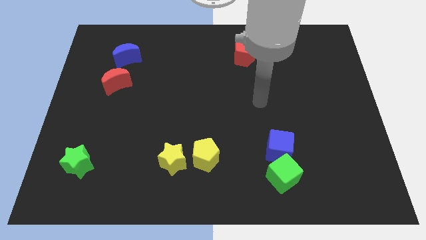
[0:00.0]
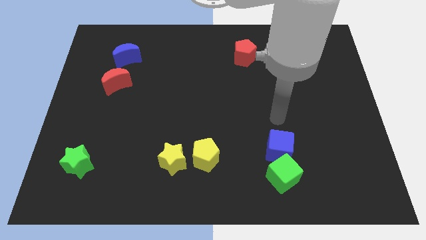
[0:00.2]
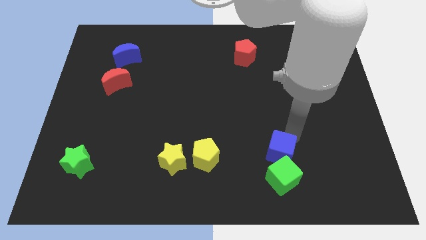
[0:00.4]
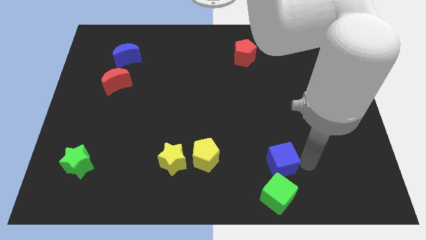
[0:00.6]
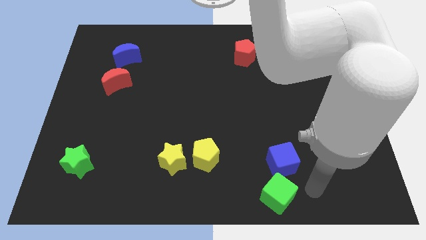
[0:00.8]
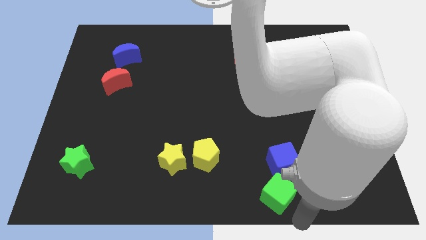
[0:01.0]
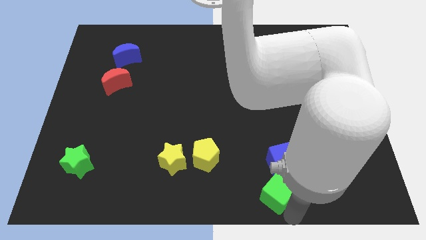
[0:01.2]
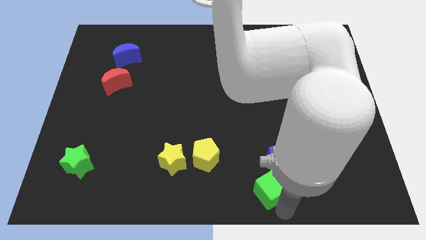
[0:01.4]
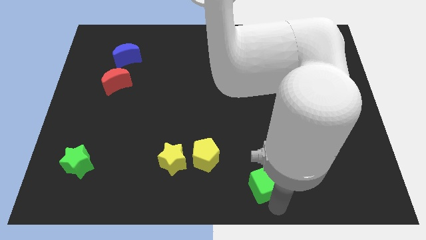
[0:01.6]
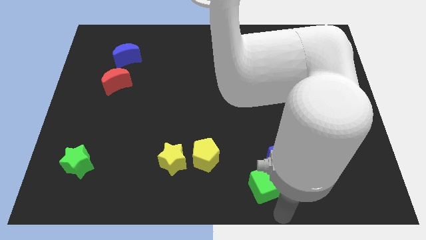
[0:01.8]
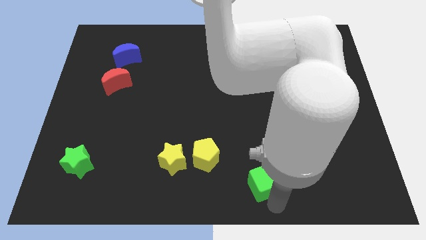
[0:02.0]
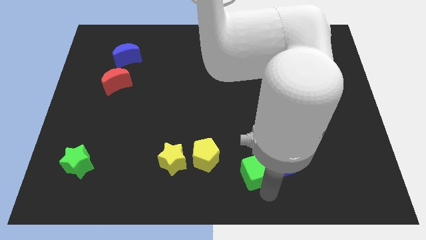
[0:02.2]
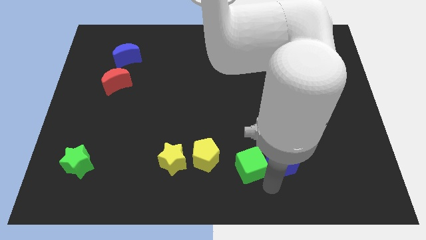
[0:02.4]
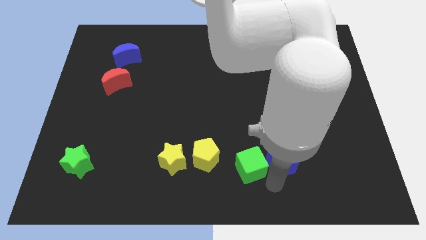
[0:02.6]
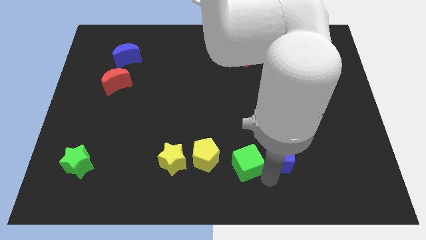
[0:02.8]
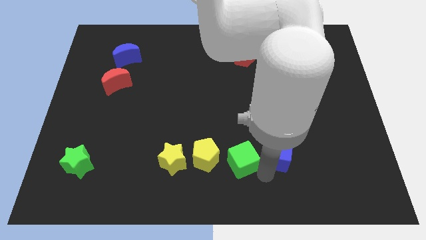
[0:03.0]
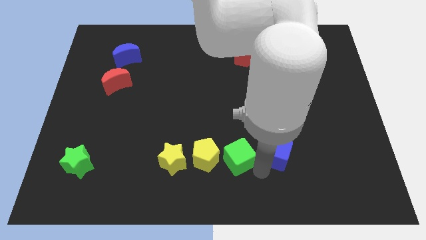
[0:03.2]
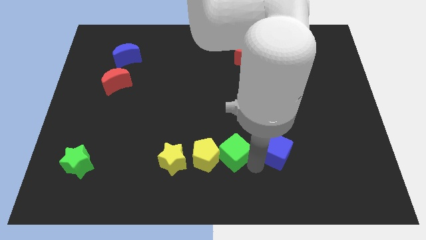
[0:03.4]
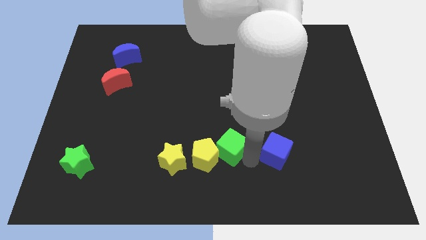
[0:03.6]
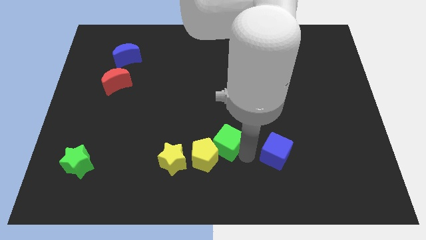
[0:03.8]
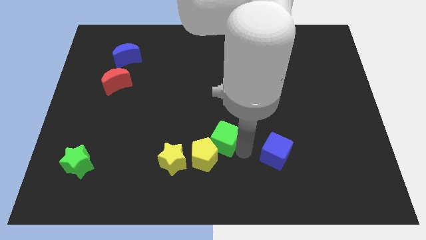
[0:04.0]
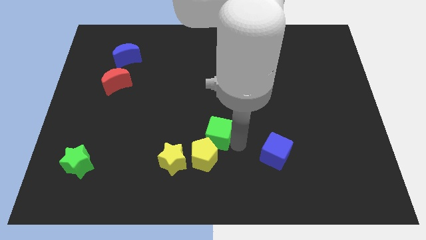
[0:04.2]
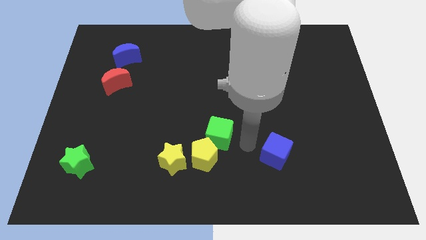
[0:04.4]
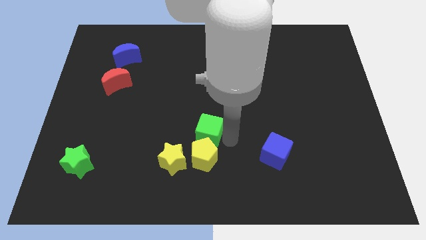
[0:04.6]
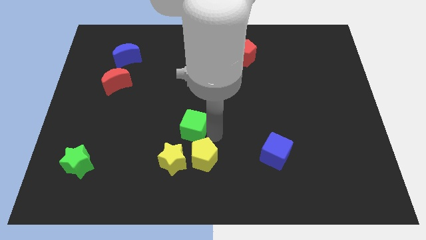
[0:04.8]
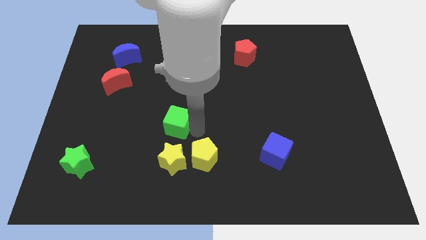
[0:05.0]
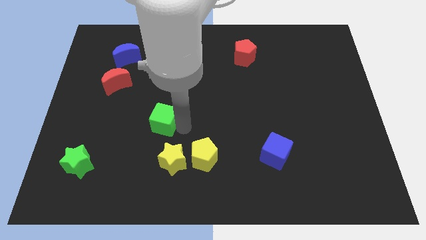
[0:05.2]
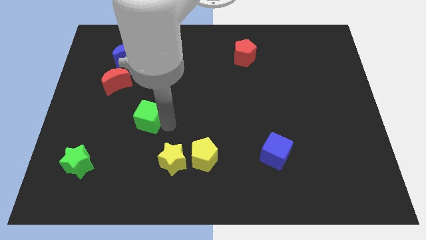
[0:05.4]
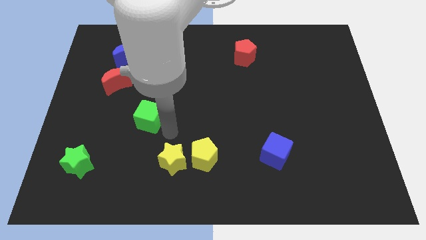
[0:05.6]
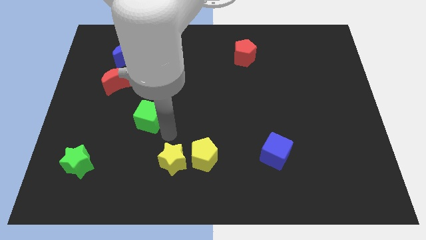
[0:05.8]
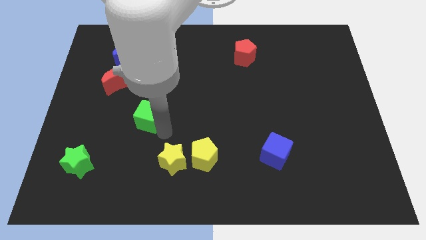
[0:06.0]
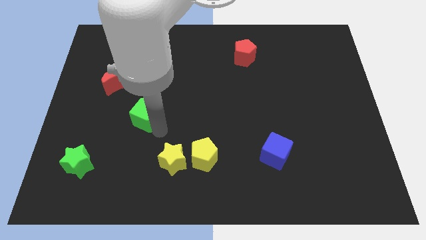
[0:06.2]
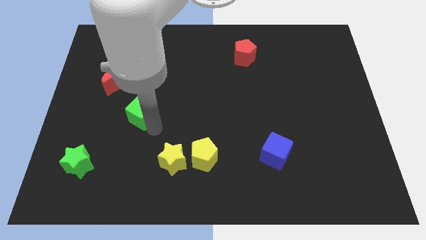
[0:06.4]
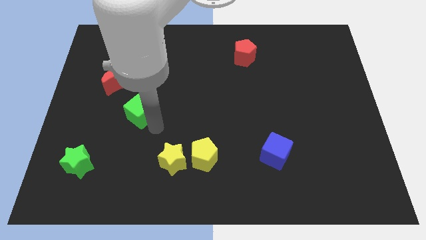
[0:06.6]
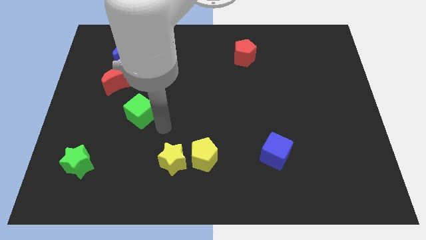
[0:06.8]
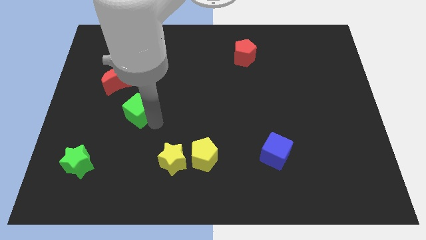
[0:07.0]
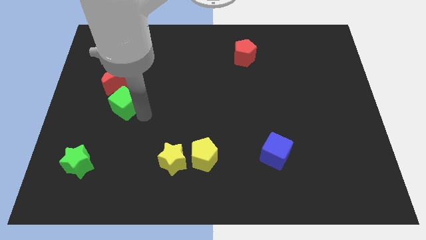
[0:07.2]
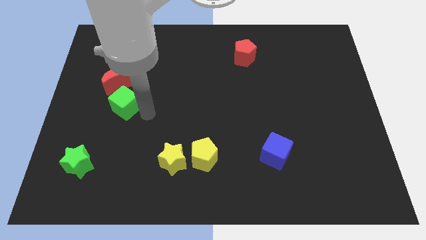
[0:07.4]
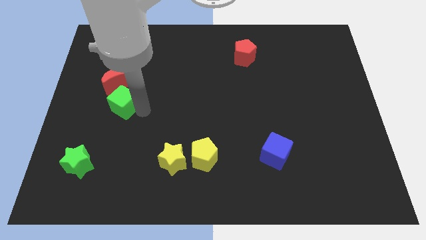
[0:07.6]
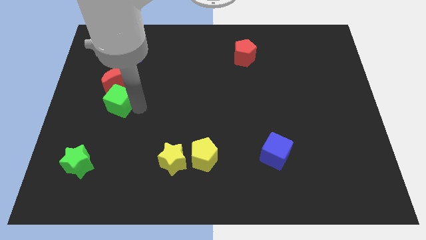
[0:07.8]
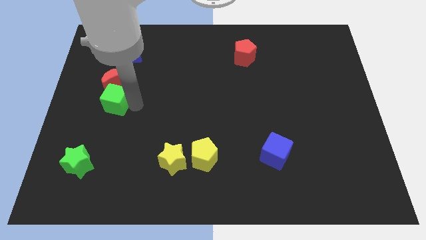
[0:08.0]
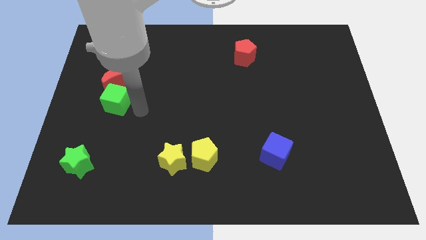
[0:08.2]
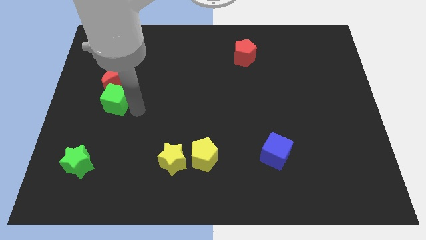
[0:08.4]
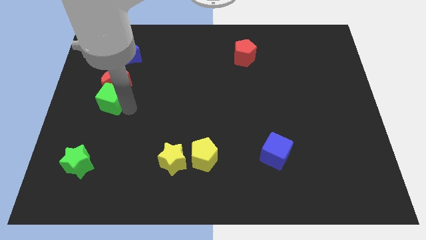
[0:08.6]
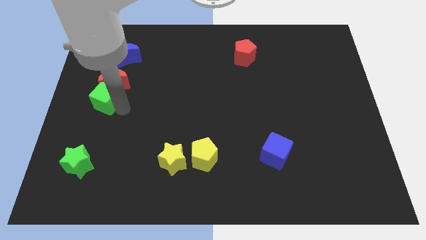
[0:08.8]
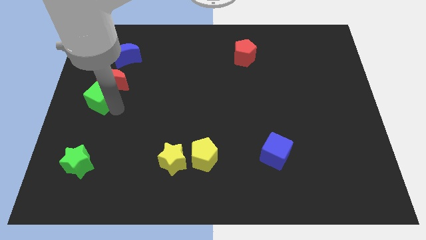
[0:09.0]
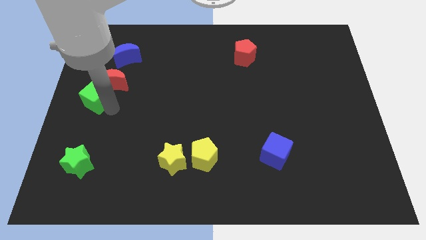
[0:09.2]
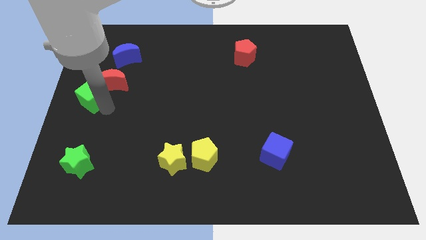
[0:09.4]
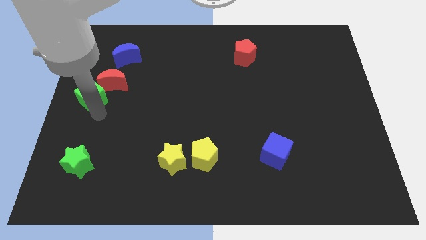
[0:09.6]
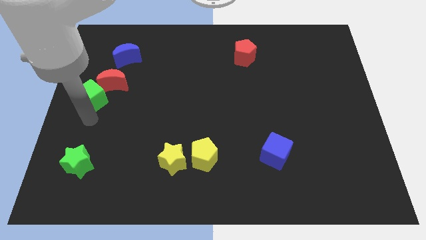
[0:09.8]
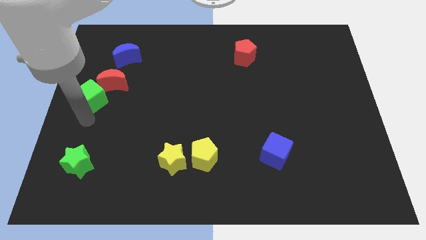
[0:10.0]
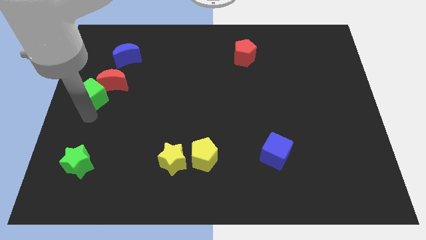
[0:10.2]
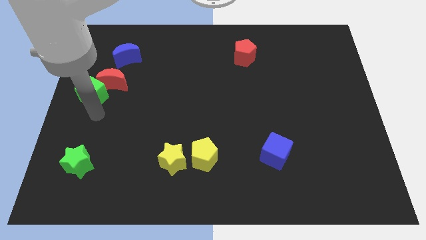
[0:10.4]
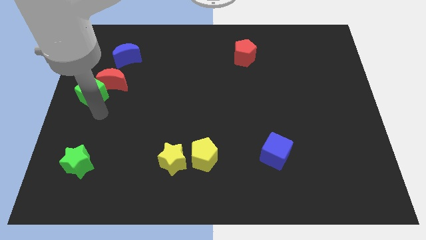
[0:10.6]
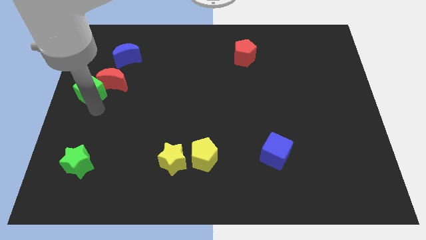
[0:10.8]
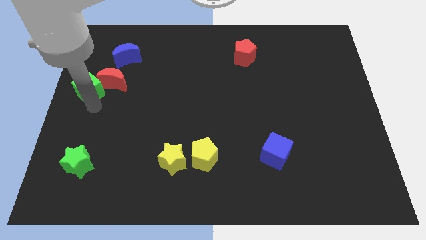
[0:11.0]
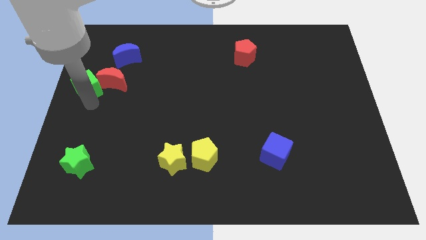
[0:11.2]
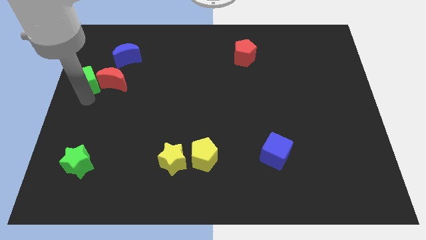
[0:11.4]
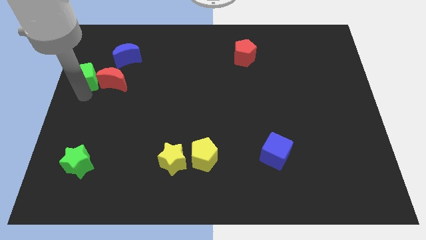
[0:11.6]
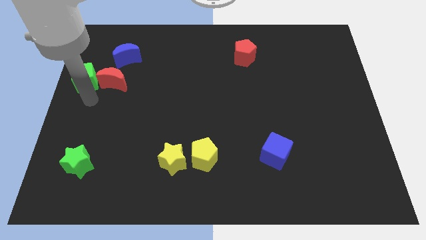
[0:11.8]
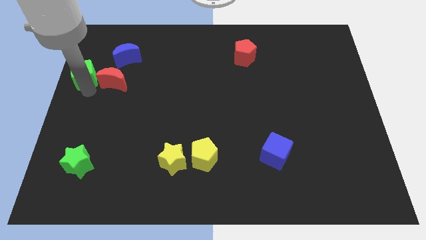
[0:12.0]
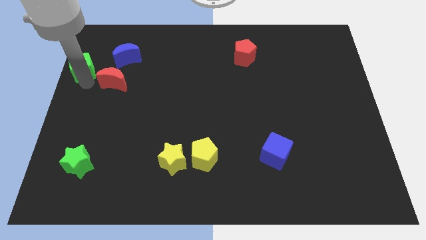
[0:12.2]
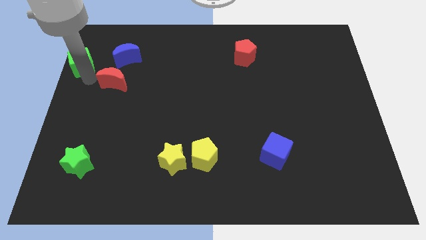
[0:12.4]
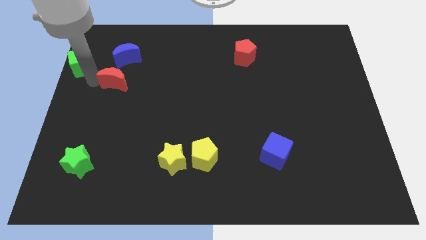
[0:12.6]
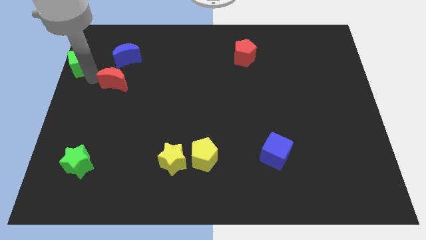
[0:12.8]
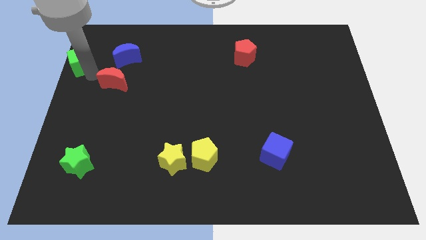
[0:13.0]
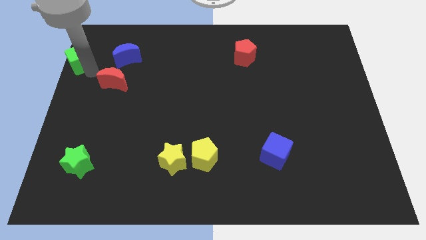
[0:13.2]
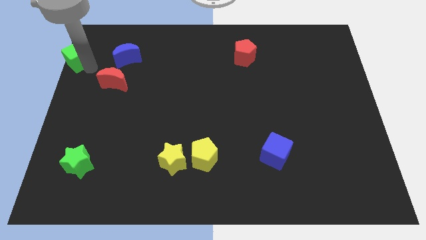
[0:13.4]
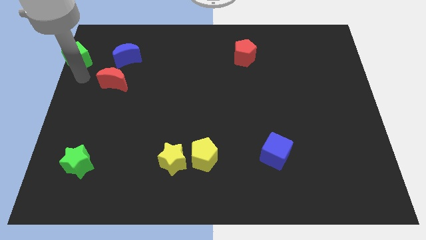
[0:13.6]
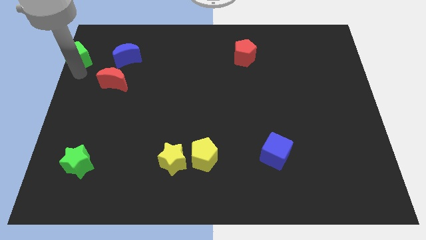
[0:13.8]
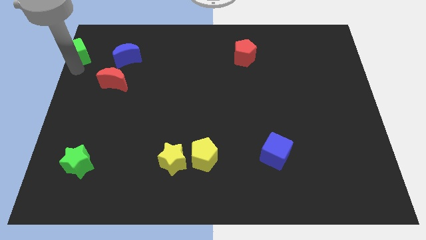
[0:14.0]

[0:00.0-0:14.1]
move the green cube to the top left corner
